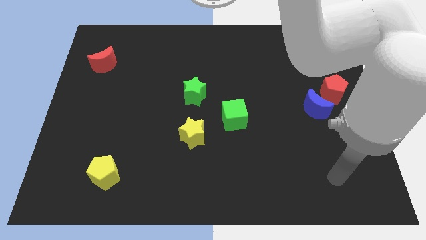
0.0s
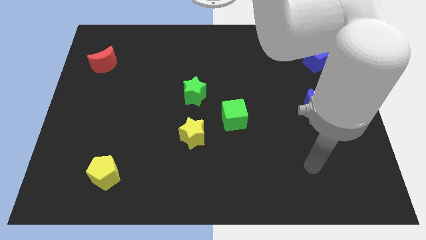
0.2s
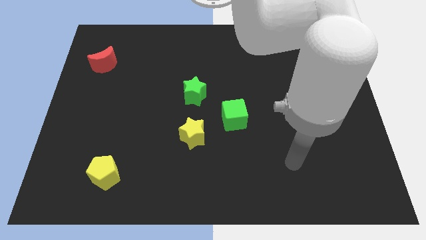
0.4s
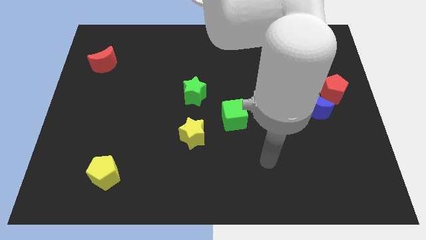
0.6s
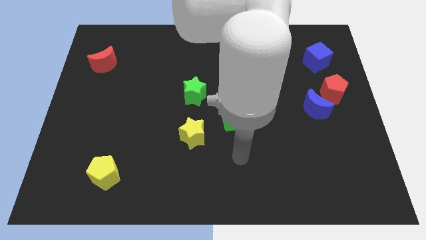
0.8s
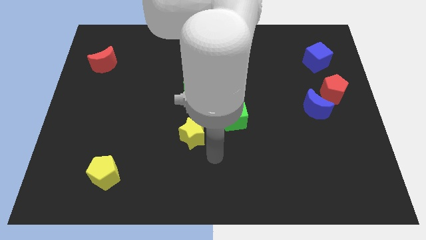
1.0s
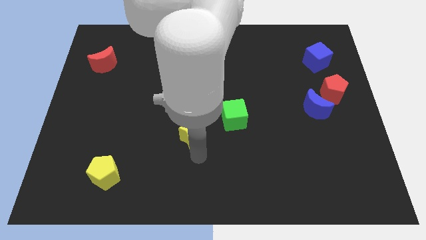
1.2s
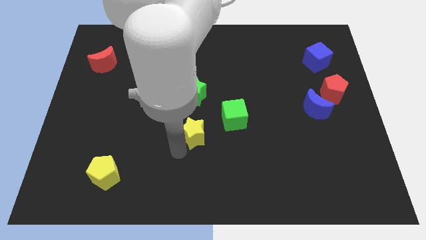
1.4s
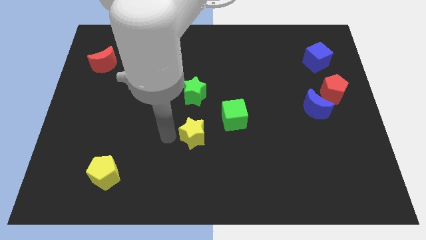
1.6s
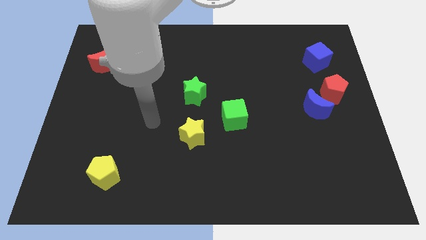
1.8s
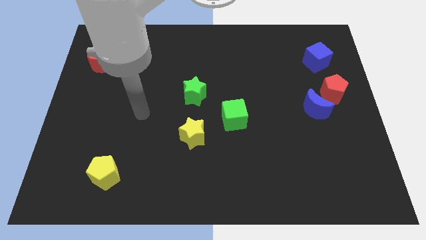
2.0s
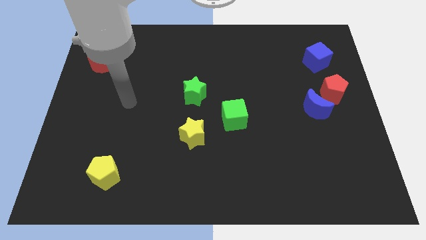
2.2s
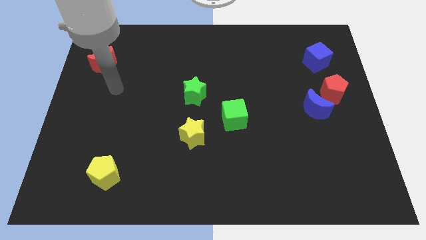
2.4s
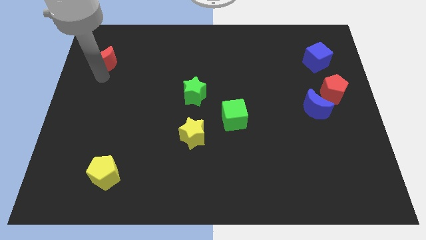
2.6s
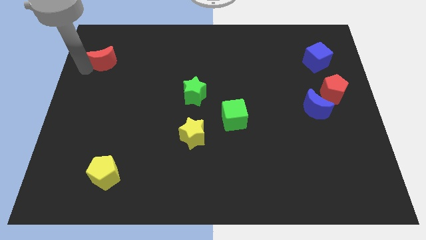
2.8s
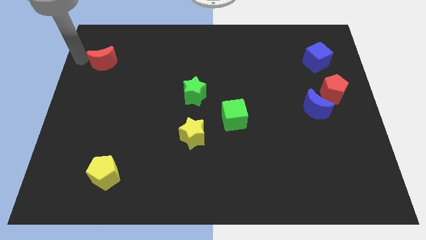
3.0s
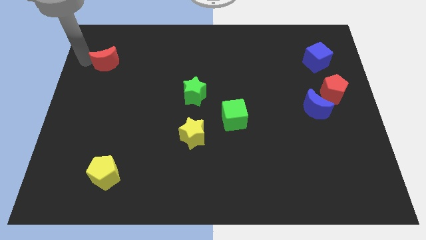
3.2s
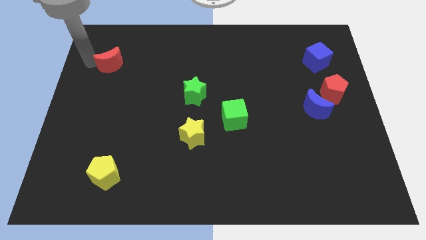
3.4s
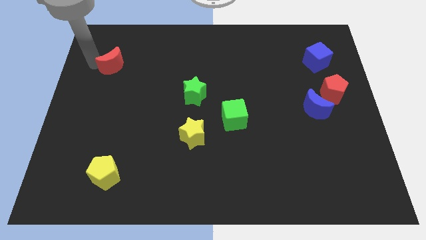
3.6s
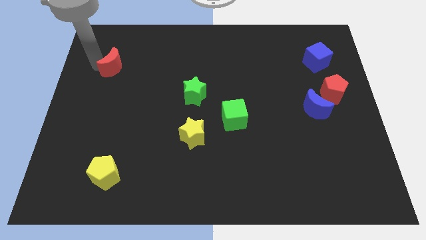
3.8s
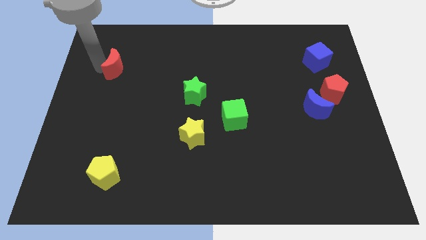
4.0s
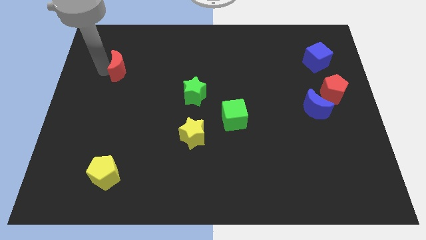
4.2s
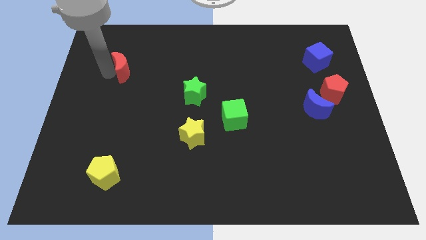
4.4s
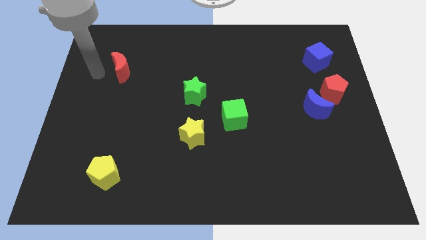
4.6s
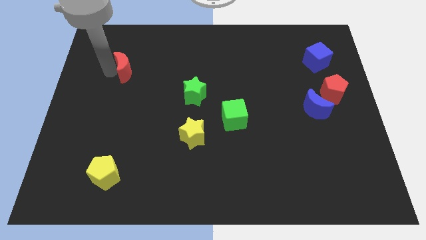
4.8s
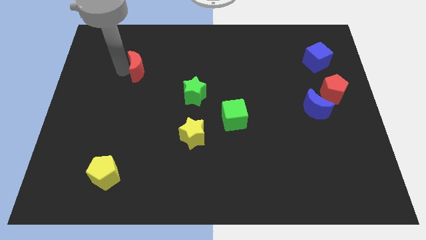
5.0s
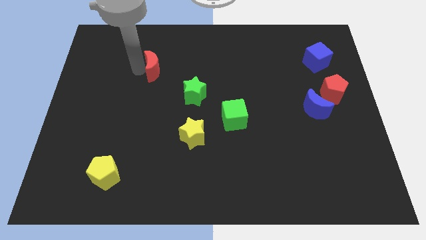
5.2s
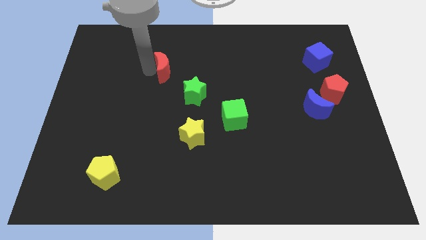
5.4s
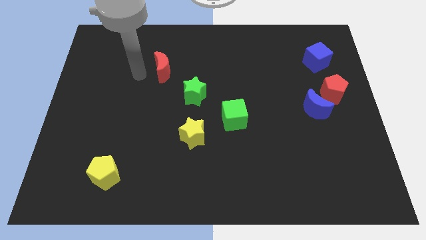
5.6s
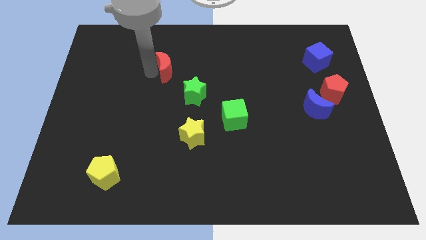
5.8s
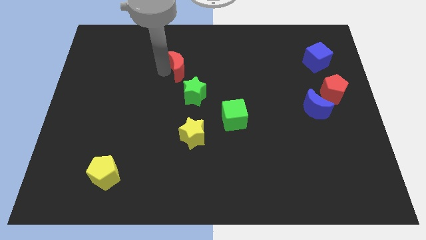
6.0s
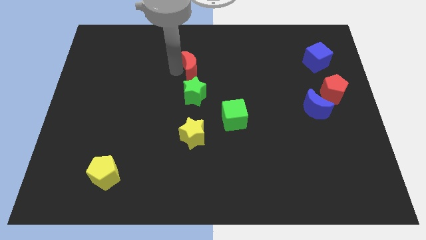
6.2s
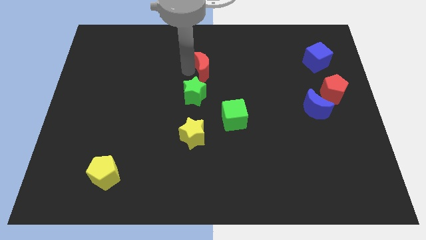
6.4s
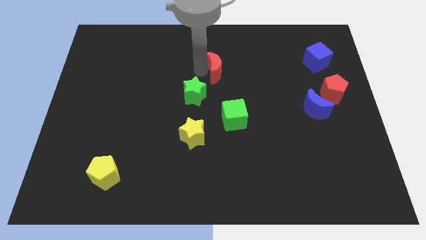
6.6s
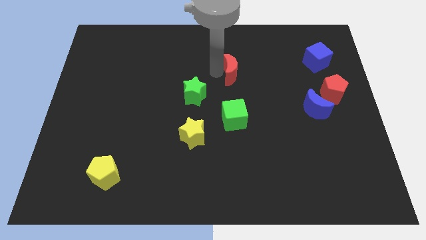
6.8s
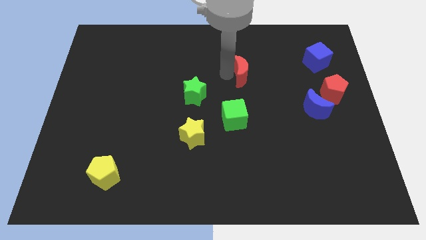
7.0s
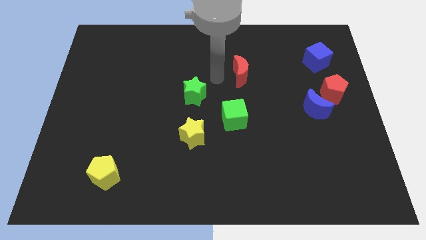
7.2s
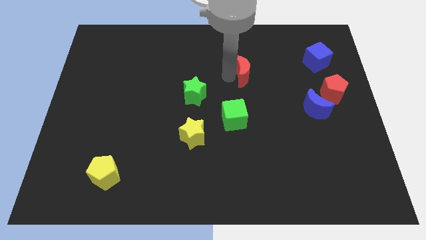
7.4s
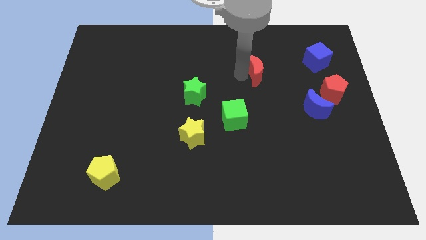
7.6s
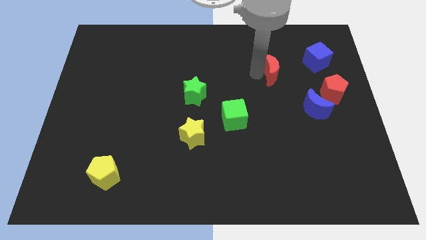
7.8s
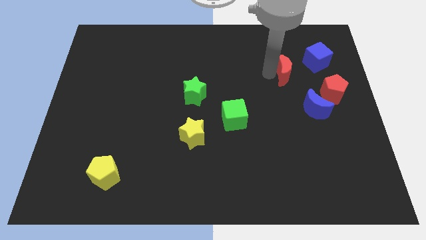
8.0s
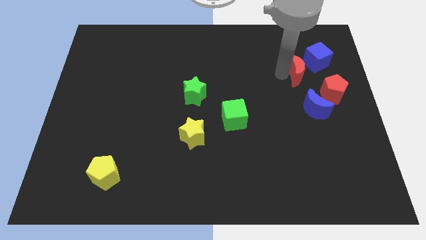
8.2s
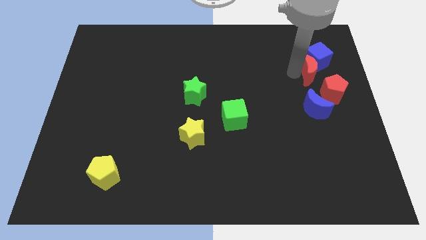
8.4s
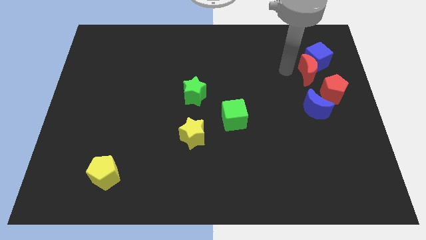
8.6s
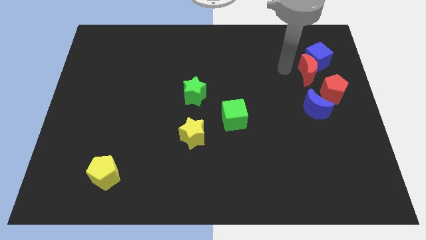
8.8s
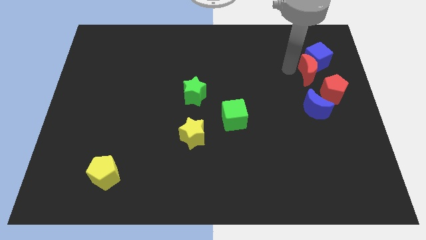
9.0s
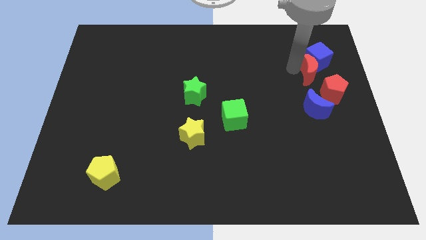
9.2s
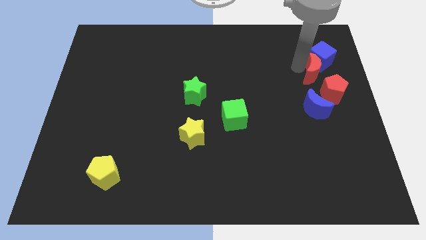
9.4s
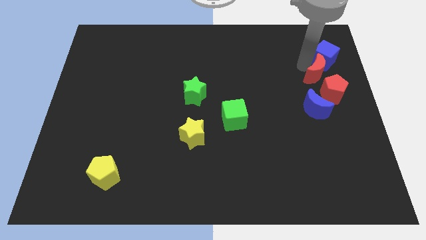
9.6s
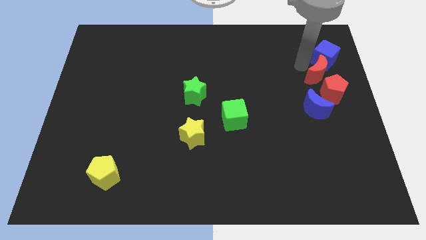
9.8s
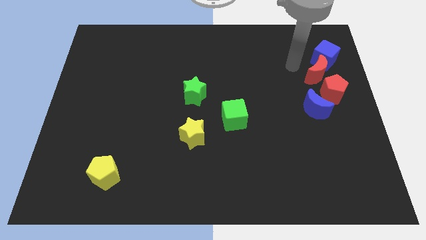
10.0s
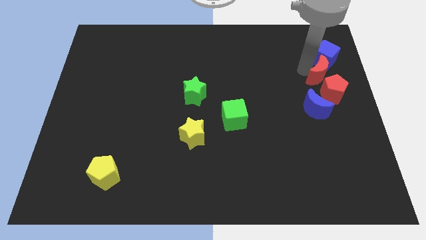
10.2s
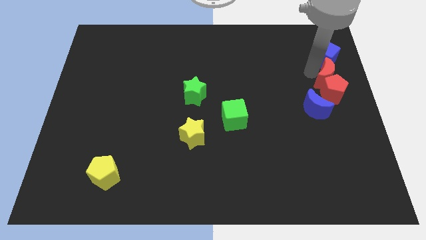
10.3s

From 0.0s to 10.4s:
slide the red moon to the top right of the blue moon

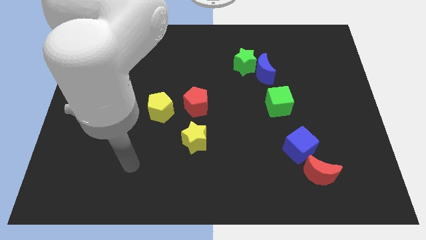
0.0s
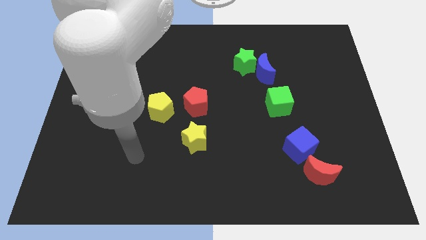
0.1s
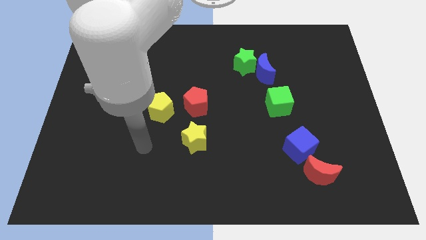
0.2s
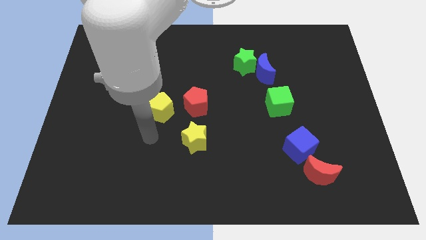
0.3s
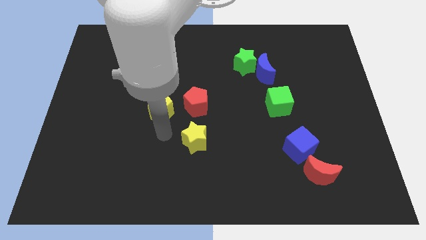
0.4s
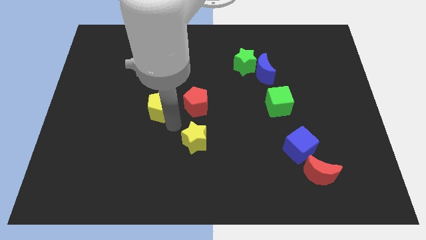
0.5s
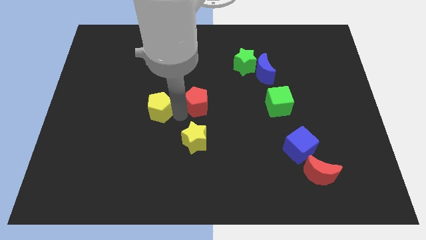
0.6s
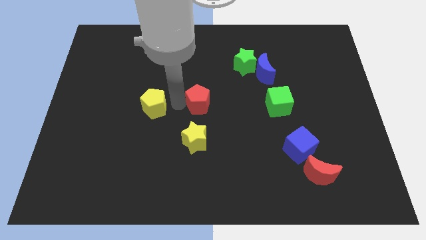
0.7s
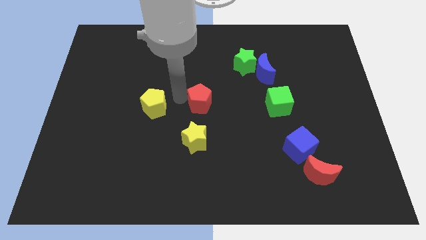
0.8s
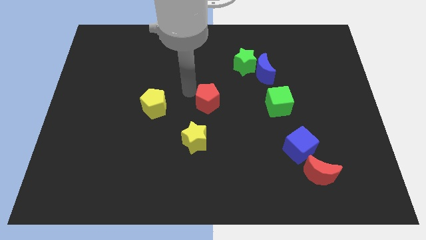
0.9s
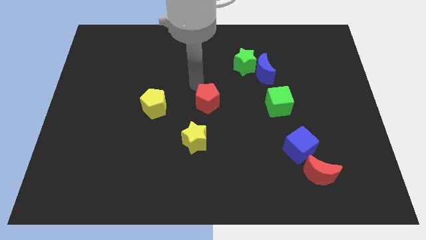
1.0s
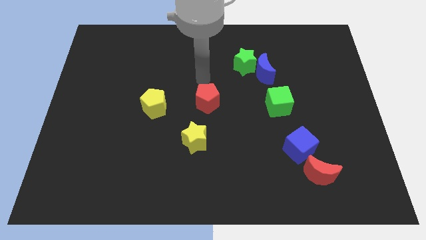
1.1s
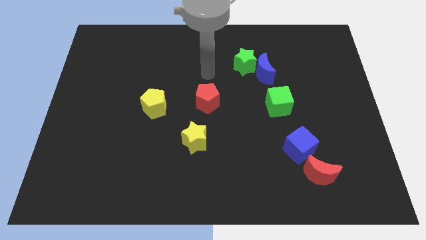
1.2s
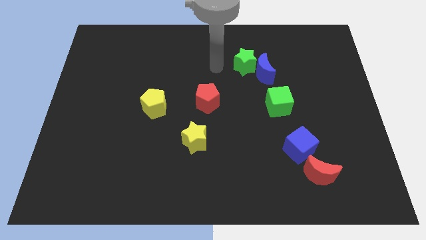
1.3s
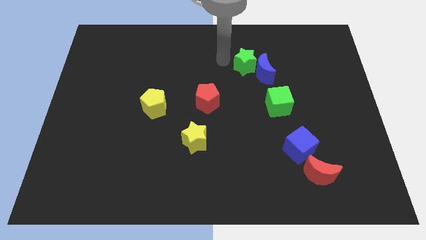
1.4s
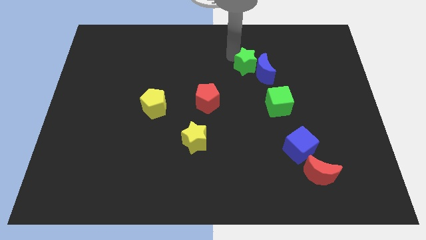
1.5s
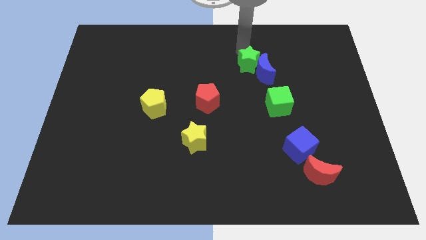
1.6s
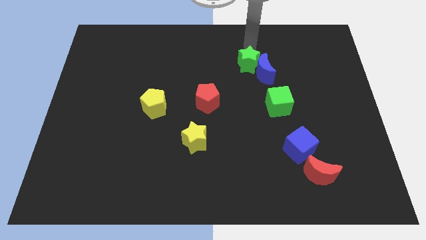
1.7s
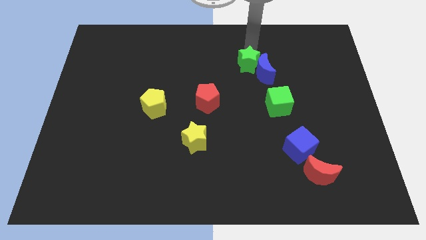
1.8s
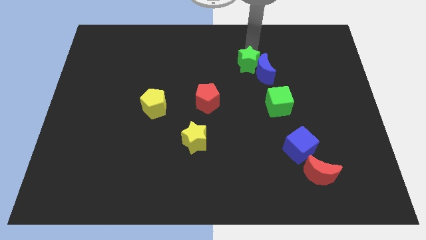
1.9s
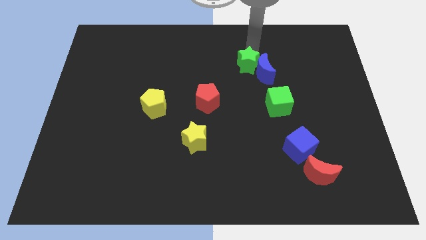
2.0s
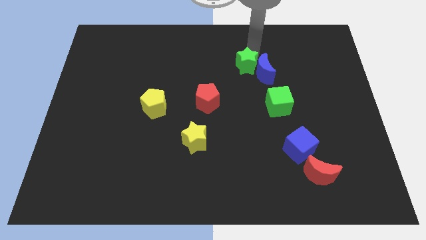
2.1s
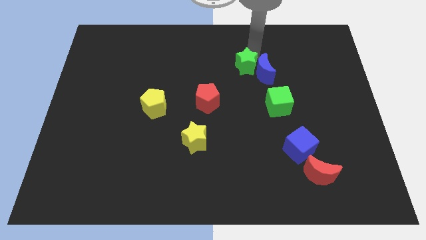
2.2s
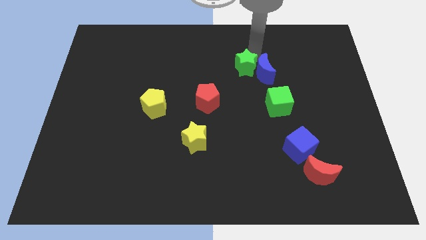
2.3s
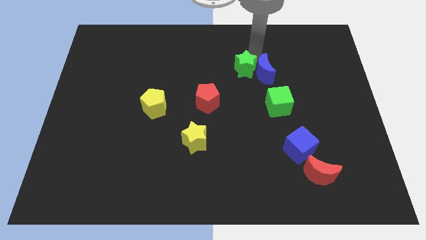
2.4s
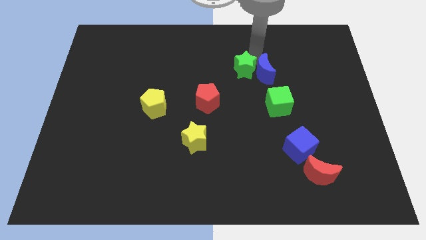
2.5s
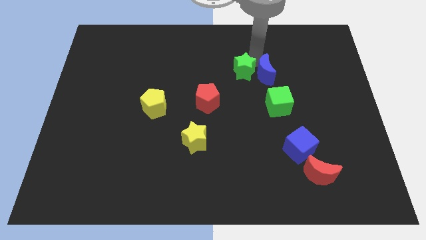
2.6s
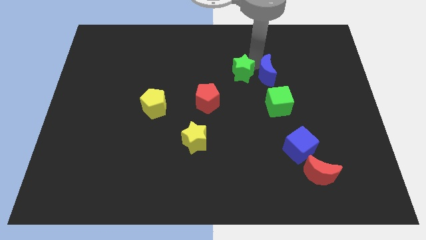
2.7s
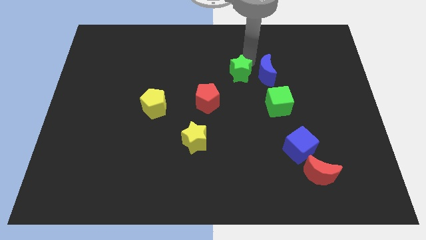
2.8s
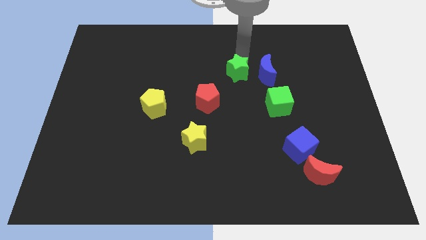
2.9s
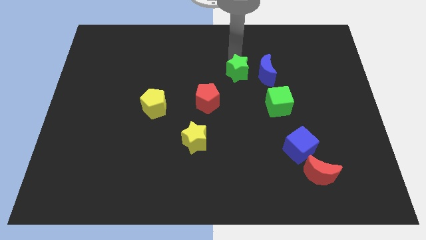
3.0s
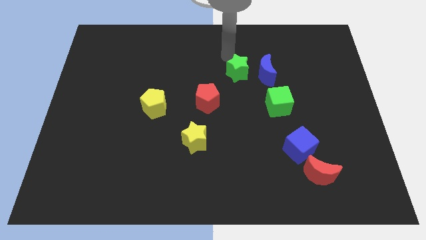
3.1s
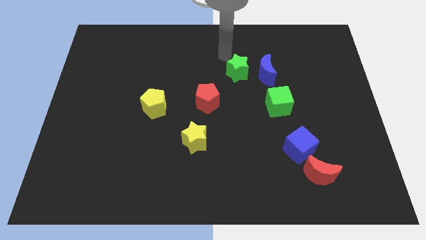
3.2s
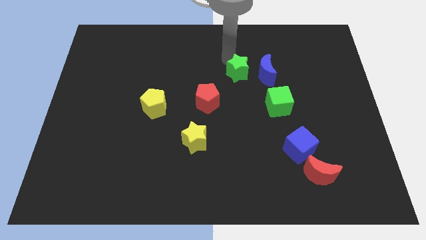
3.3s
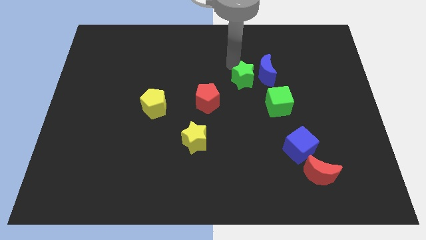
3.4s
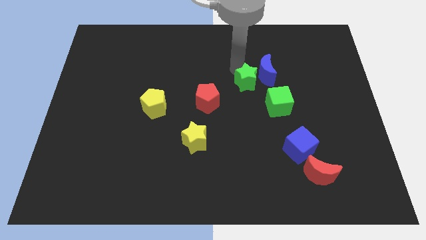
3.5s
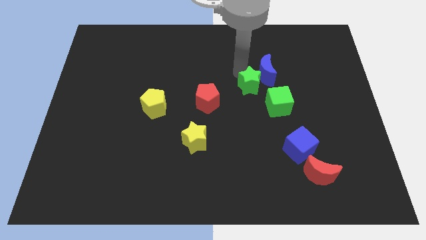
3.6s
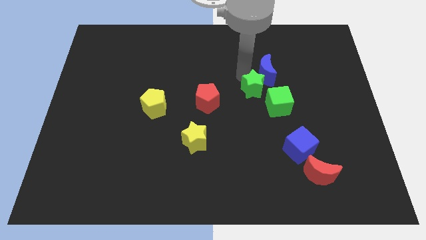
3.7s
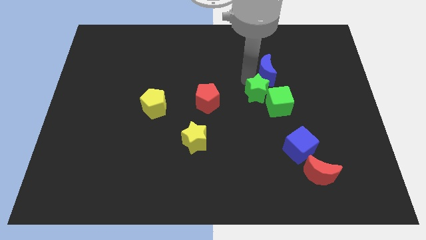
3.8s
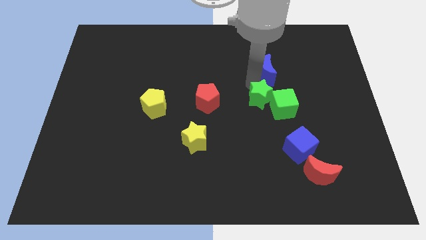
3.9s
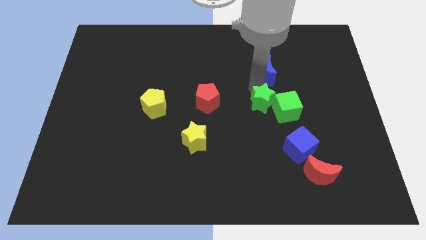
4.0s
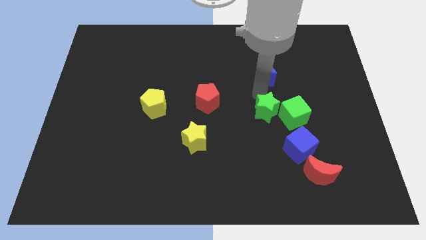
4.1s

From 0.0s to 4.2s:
push the green star to the top left of the blue cube
